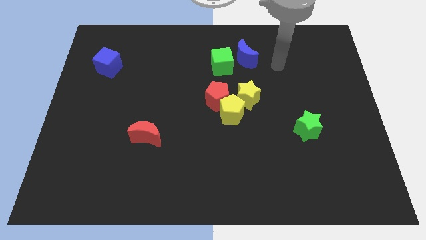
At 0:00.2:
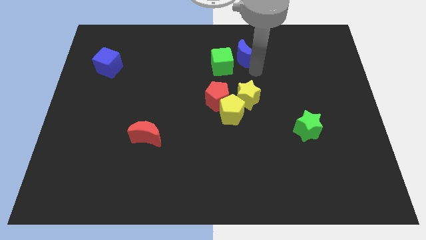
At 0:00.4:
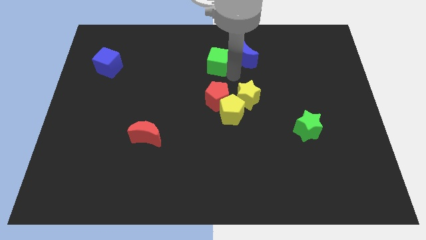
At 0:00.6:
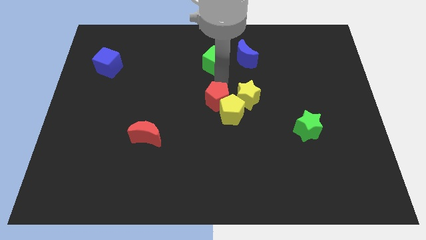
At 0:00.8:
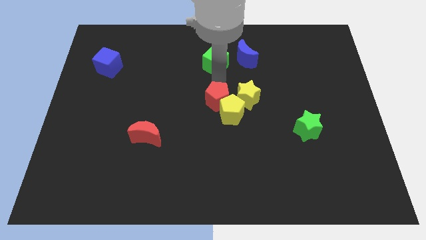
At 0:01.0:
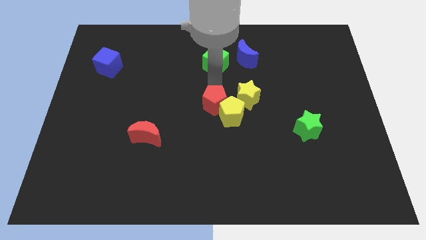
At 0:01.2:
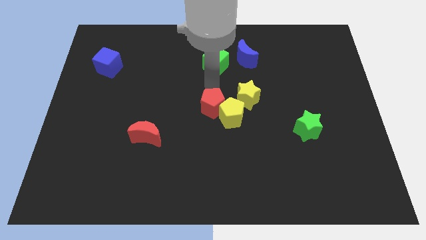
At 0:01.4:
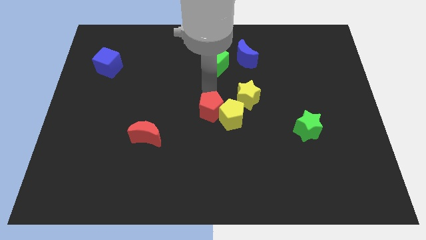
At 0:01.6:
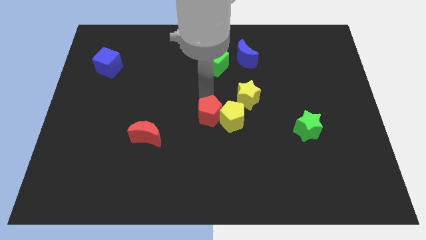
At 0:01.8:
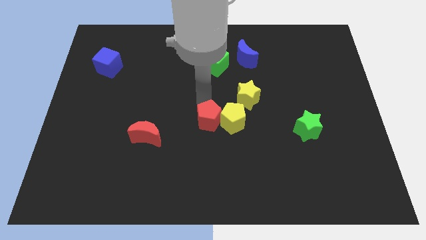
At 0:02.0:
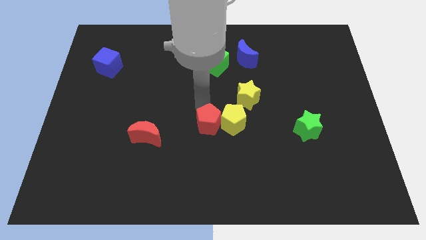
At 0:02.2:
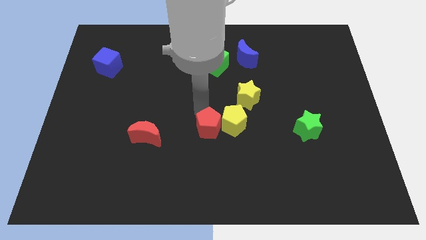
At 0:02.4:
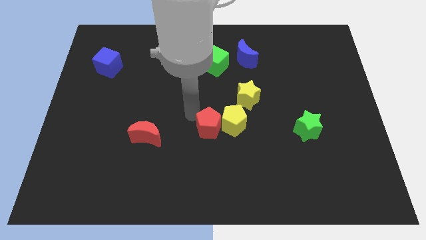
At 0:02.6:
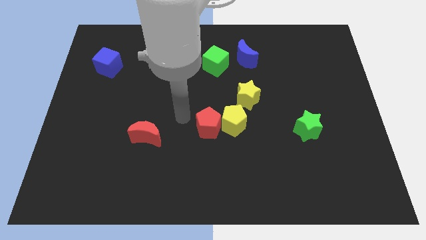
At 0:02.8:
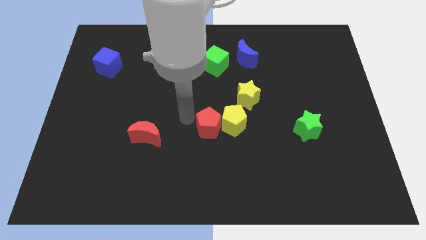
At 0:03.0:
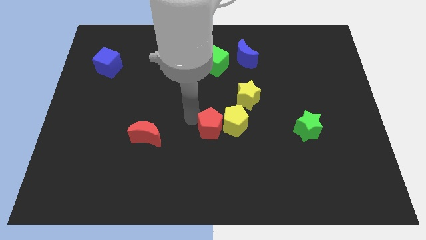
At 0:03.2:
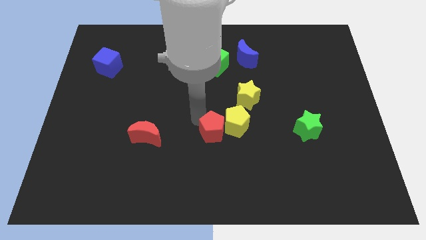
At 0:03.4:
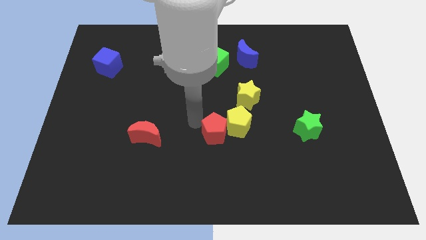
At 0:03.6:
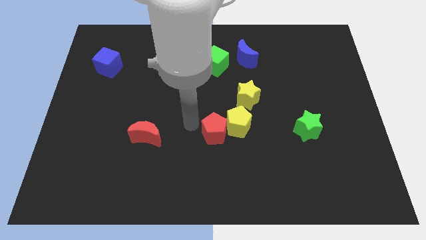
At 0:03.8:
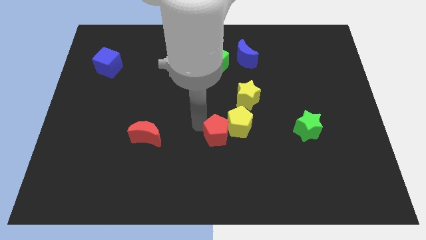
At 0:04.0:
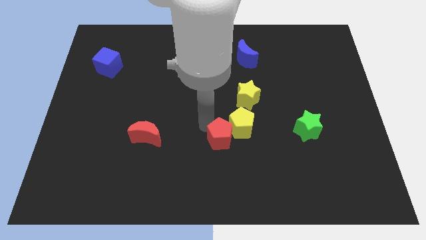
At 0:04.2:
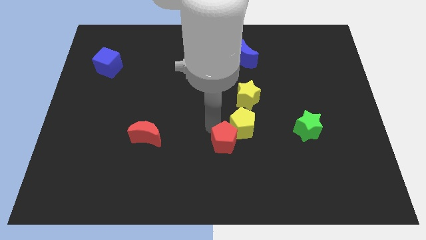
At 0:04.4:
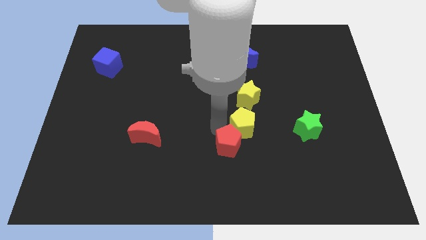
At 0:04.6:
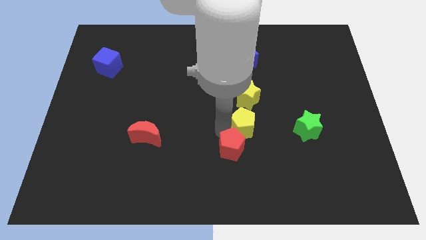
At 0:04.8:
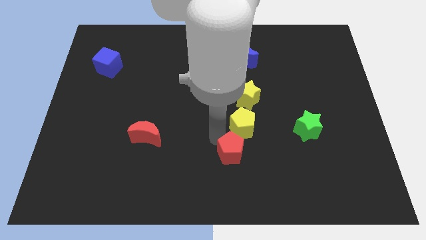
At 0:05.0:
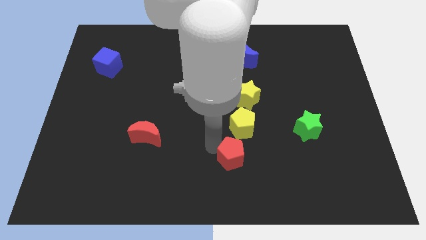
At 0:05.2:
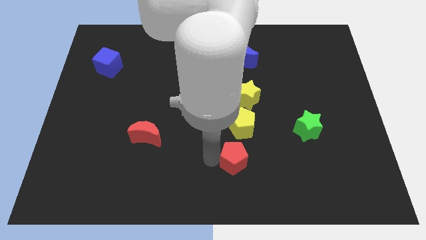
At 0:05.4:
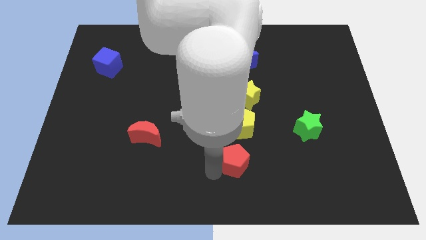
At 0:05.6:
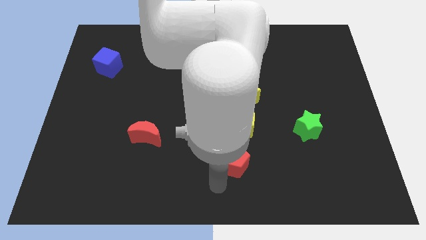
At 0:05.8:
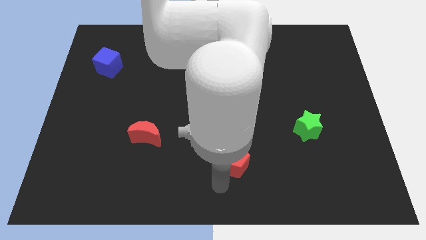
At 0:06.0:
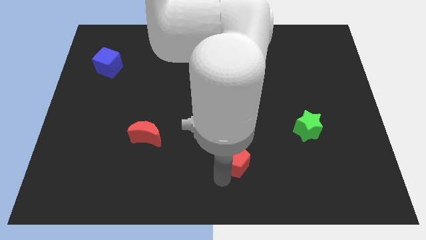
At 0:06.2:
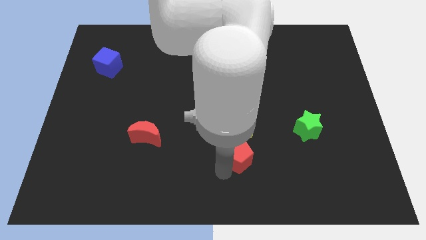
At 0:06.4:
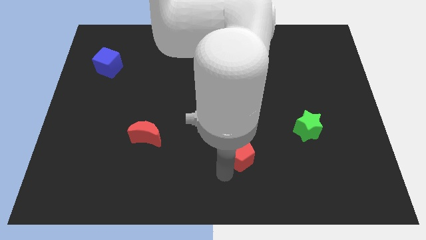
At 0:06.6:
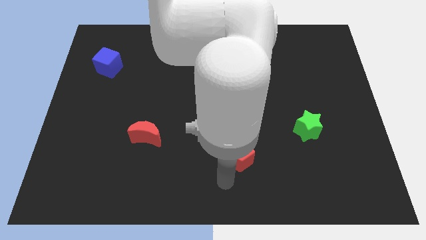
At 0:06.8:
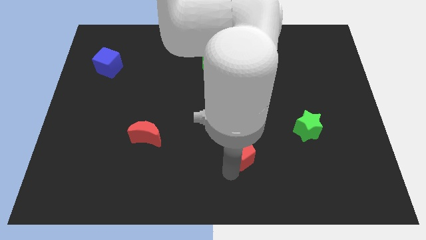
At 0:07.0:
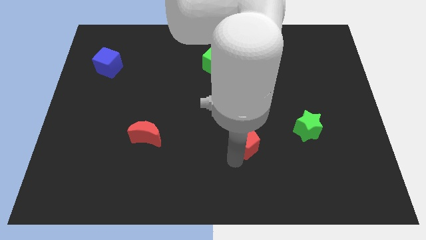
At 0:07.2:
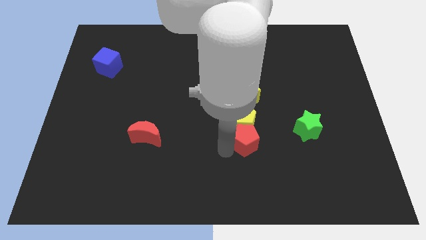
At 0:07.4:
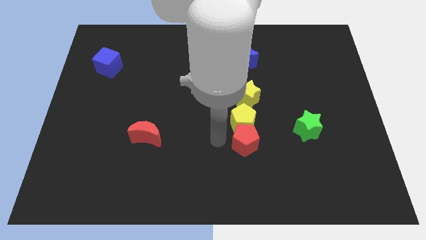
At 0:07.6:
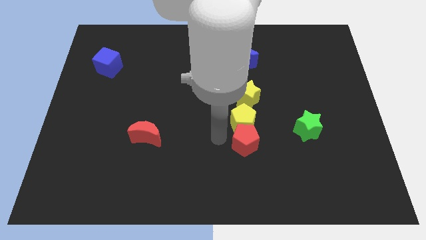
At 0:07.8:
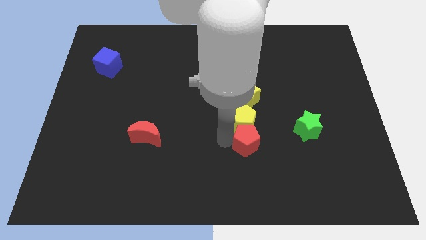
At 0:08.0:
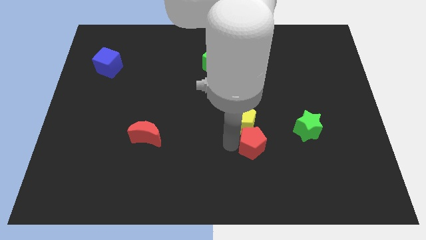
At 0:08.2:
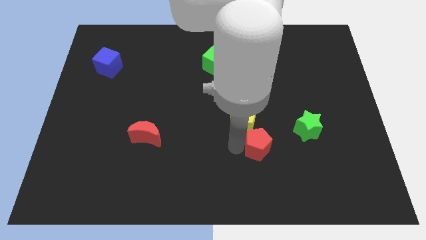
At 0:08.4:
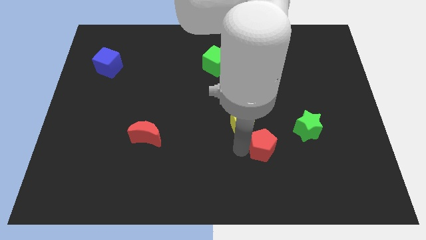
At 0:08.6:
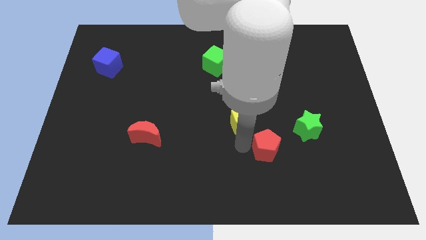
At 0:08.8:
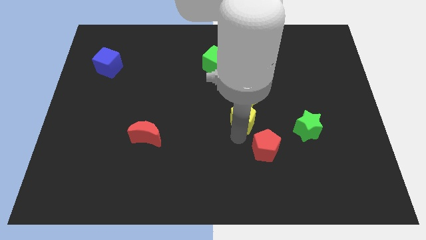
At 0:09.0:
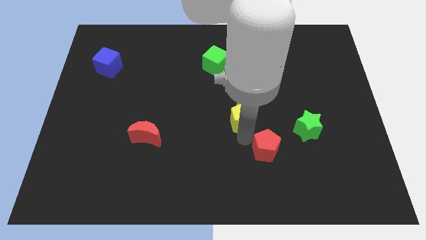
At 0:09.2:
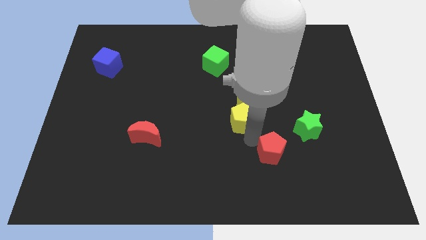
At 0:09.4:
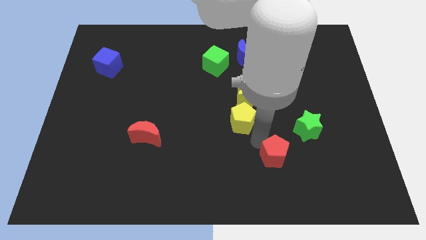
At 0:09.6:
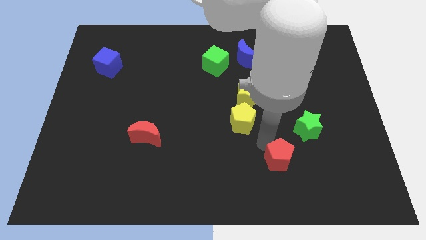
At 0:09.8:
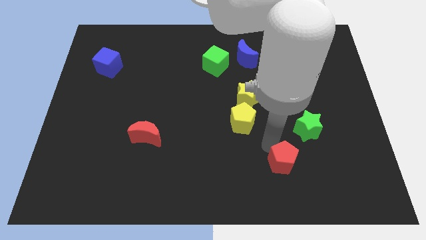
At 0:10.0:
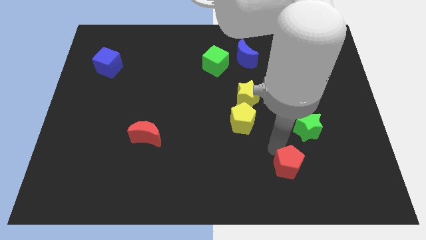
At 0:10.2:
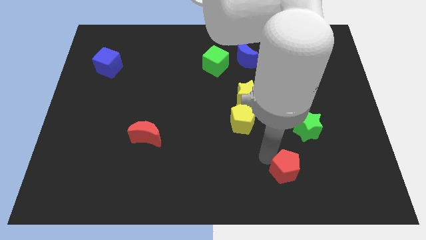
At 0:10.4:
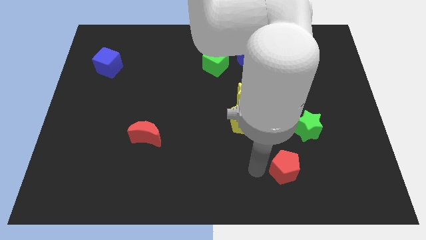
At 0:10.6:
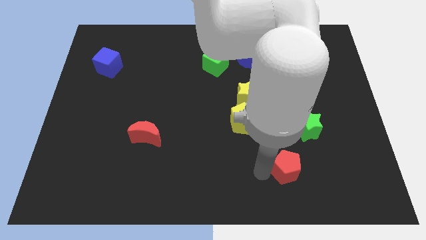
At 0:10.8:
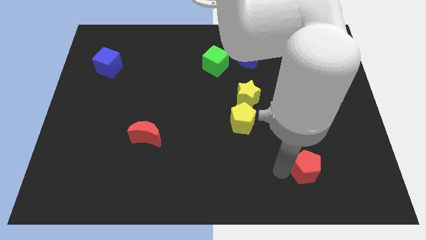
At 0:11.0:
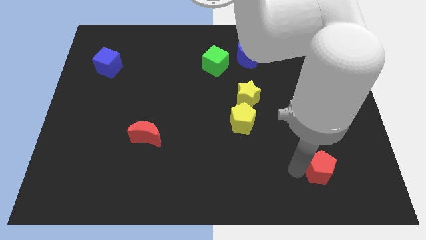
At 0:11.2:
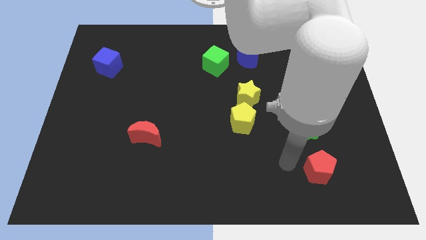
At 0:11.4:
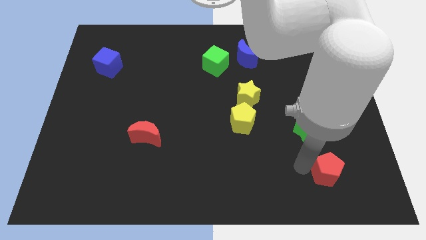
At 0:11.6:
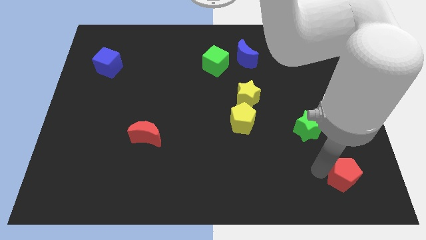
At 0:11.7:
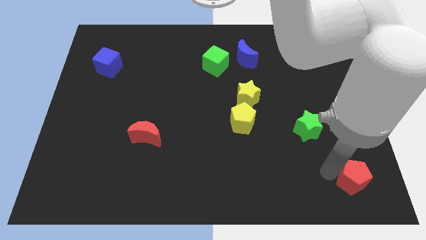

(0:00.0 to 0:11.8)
put the red pentagon to the bottom right corner

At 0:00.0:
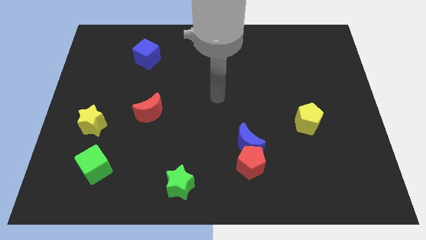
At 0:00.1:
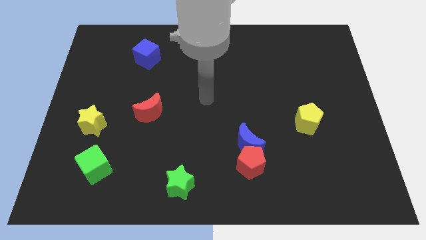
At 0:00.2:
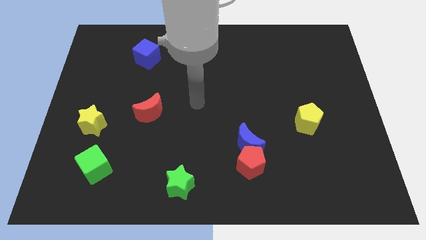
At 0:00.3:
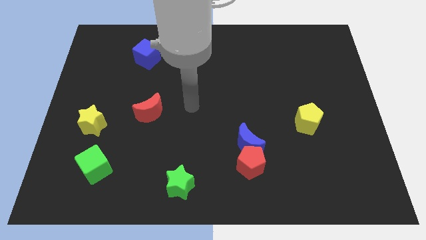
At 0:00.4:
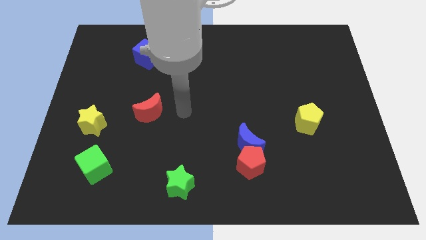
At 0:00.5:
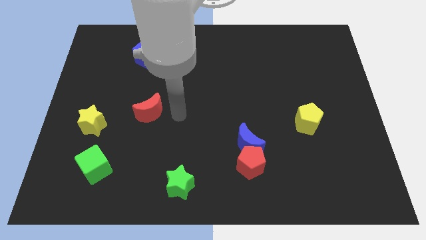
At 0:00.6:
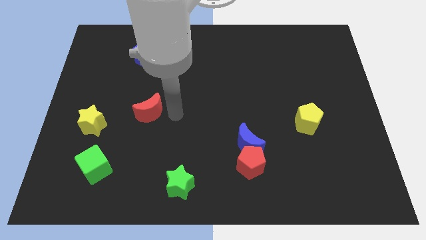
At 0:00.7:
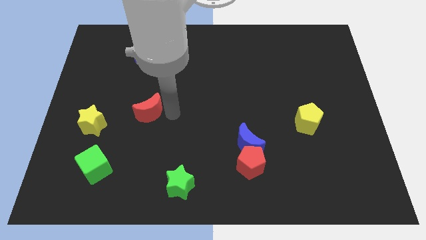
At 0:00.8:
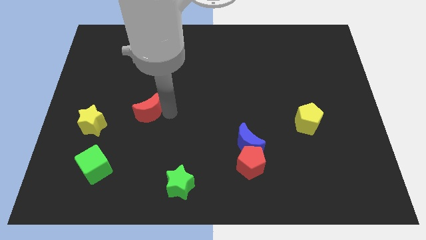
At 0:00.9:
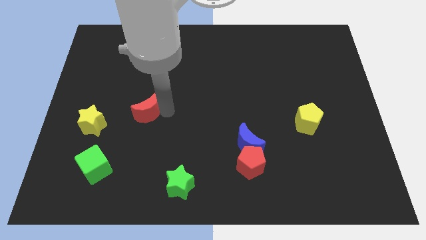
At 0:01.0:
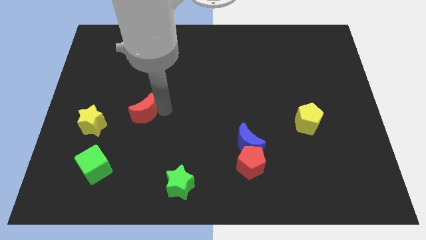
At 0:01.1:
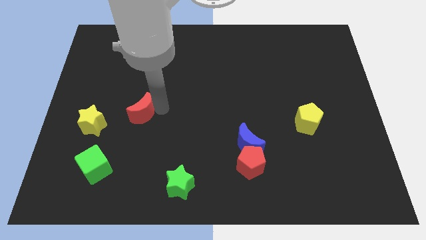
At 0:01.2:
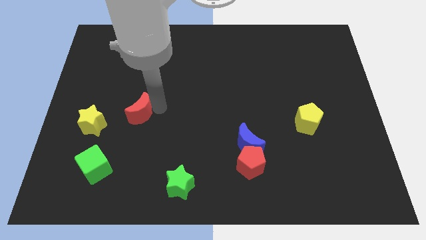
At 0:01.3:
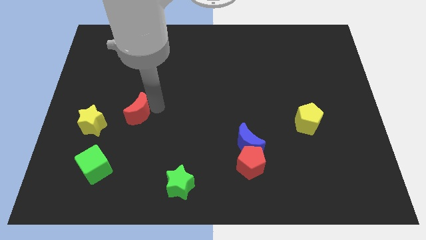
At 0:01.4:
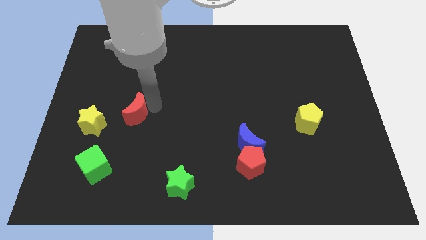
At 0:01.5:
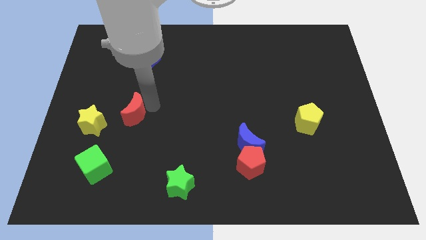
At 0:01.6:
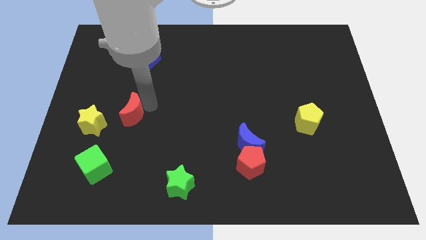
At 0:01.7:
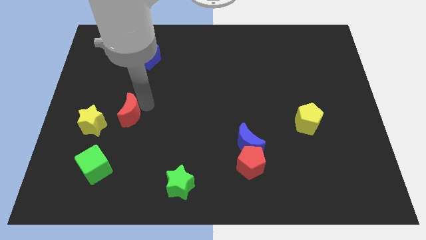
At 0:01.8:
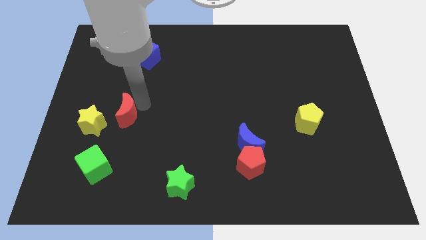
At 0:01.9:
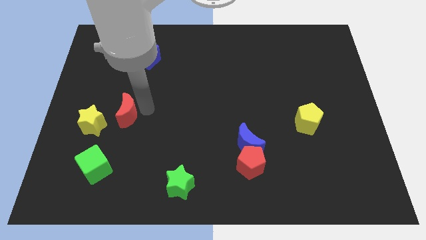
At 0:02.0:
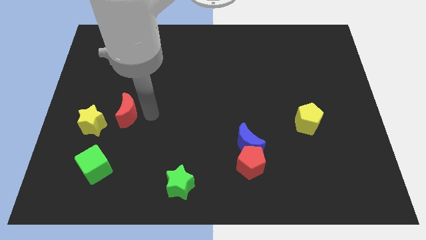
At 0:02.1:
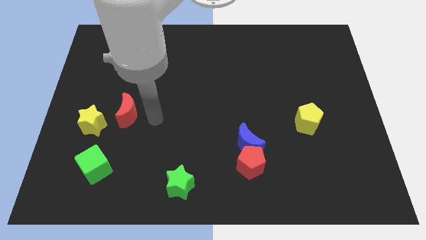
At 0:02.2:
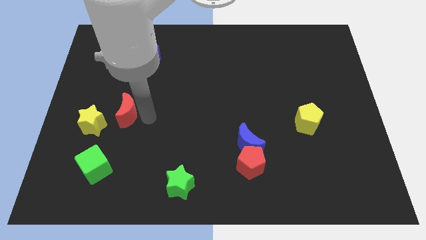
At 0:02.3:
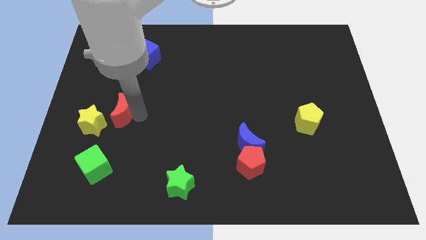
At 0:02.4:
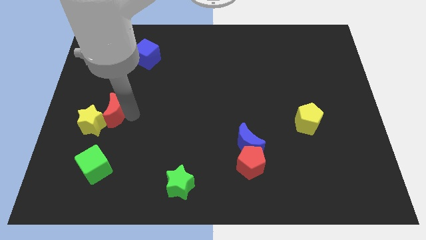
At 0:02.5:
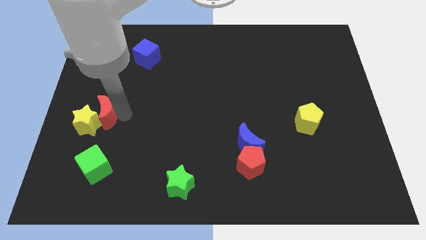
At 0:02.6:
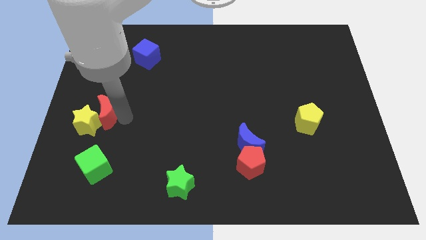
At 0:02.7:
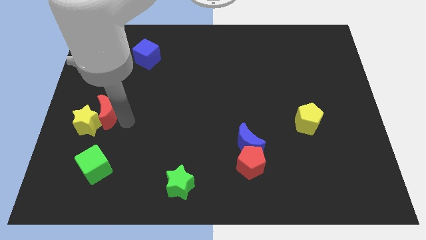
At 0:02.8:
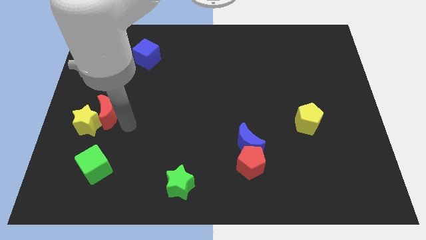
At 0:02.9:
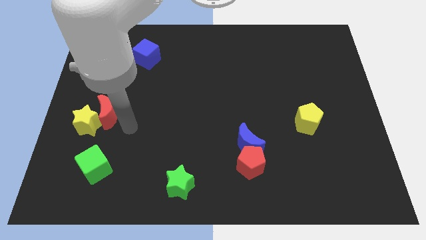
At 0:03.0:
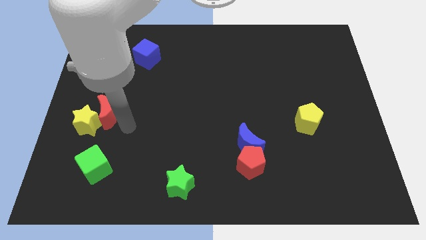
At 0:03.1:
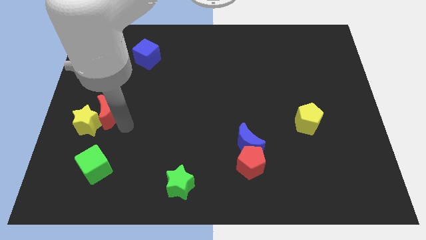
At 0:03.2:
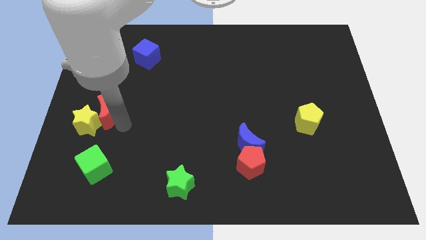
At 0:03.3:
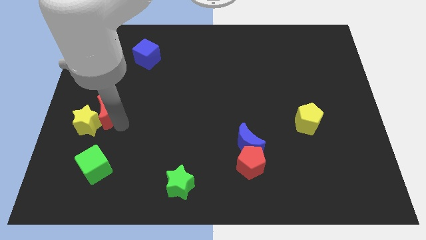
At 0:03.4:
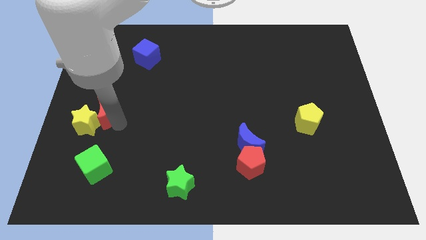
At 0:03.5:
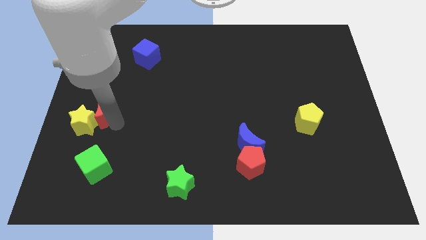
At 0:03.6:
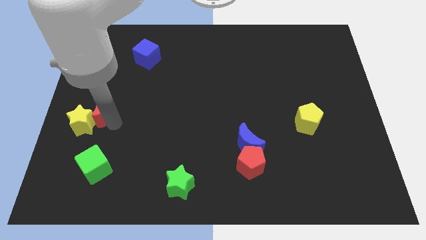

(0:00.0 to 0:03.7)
push the red moon to the left side of the board
